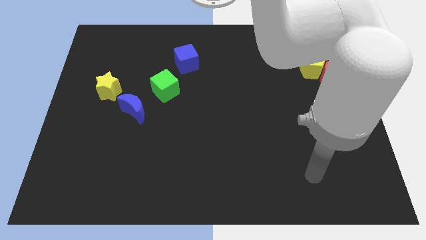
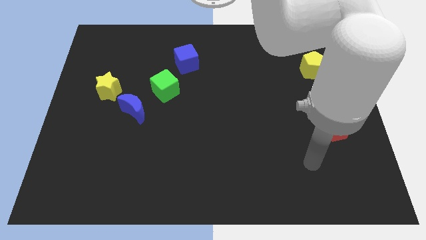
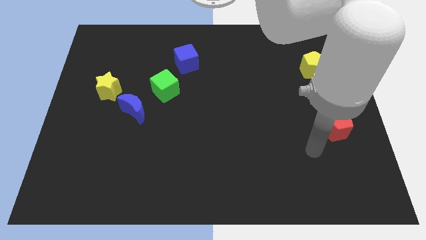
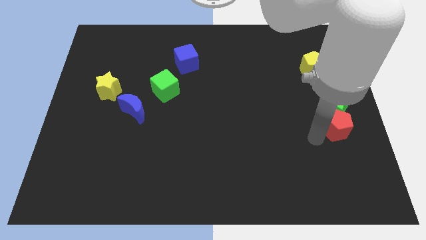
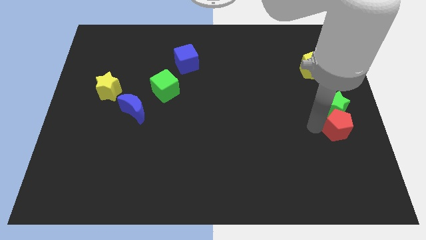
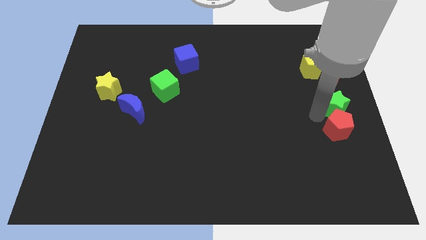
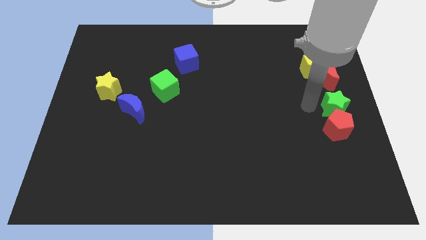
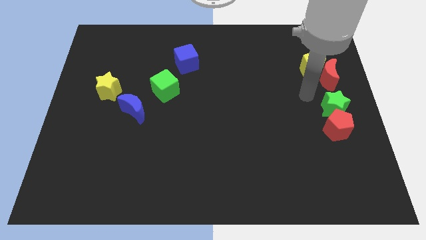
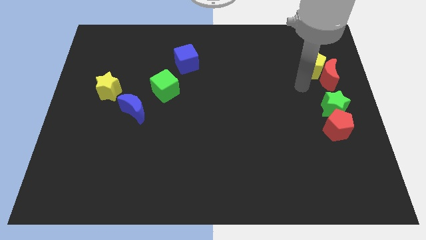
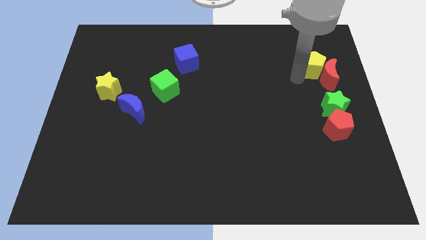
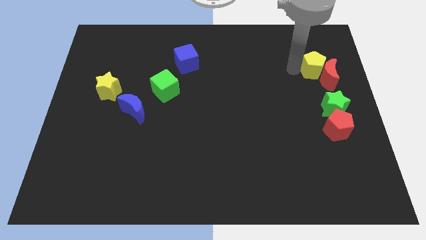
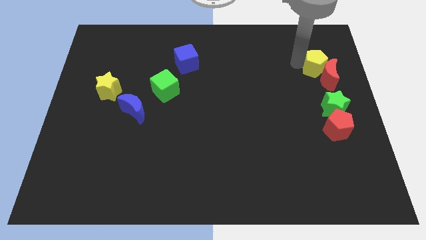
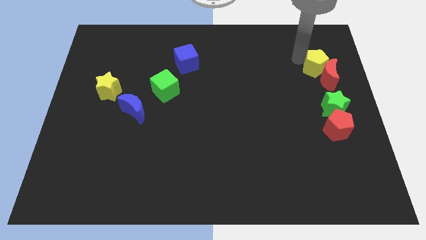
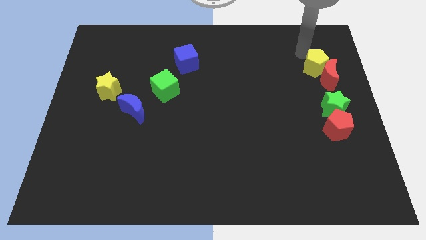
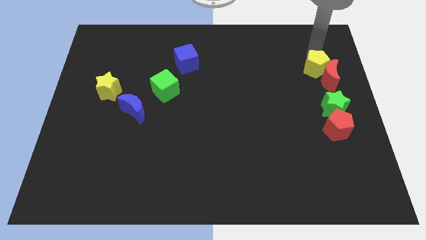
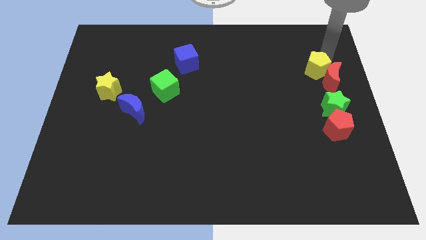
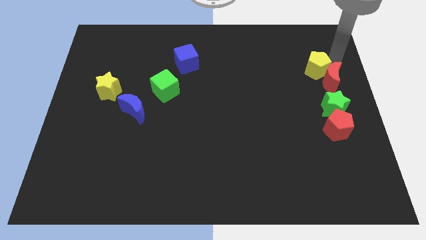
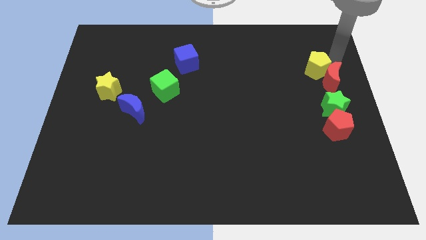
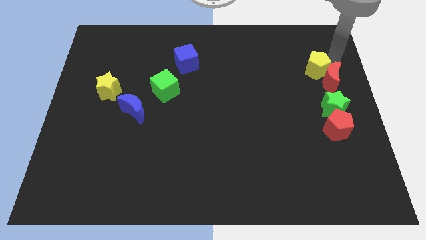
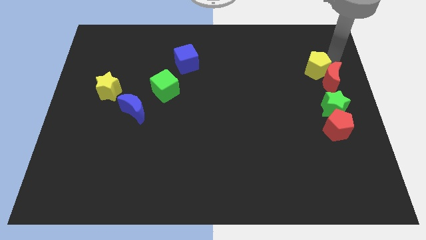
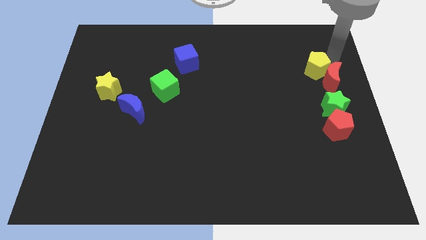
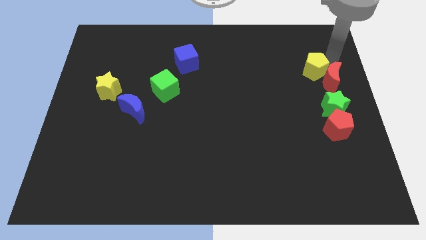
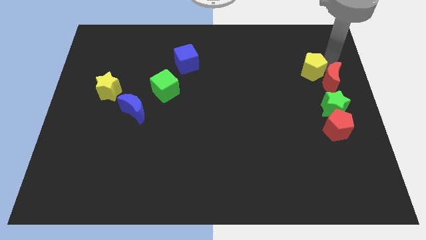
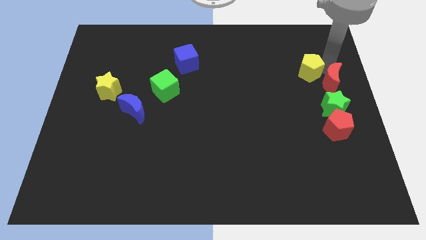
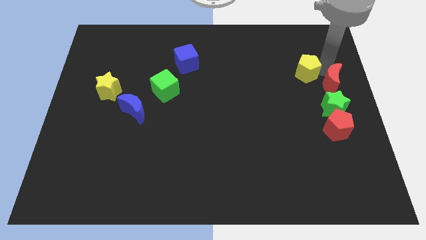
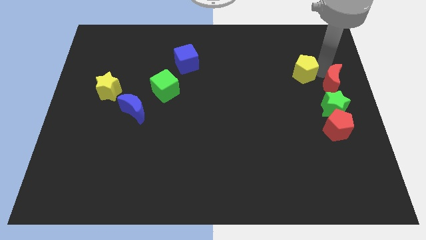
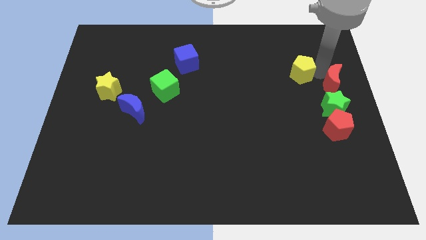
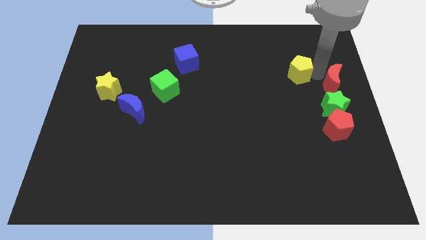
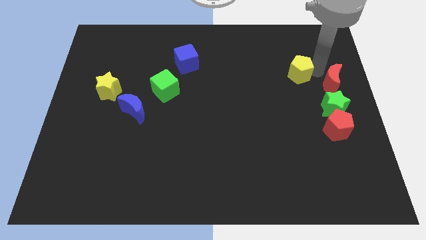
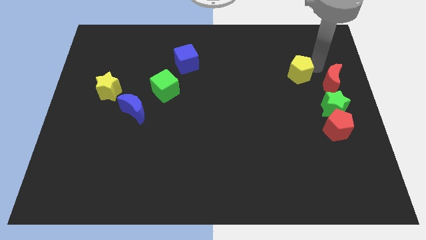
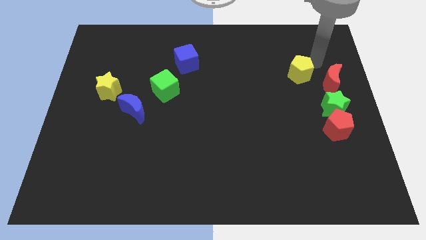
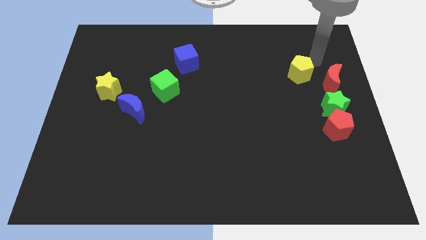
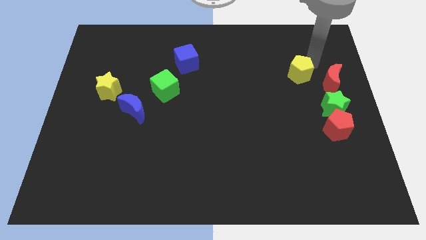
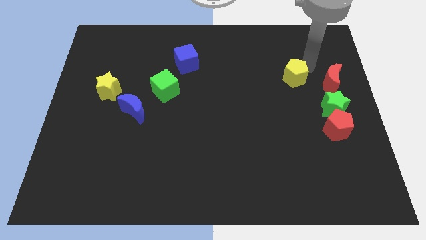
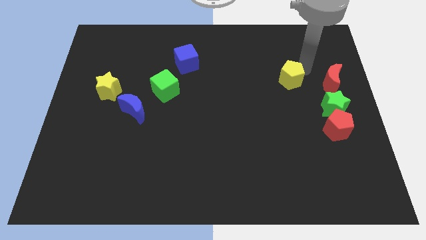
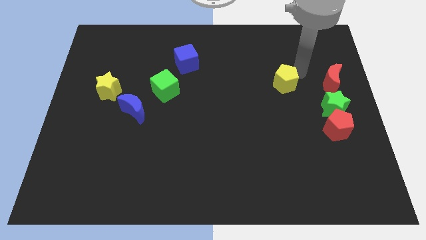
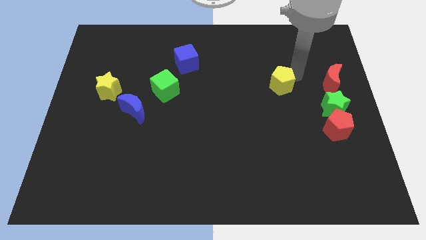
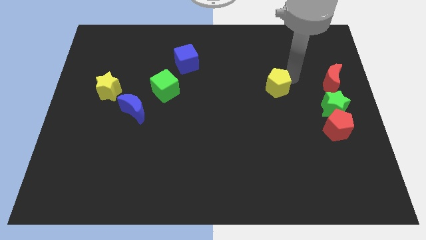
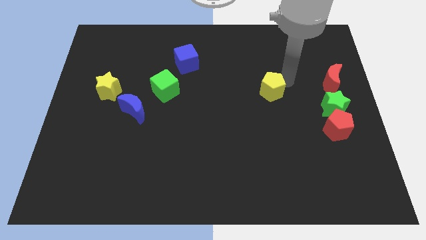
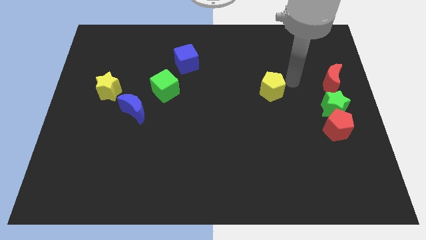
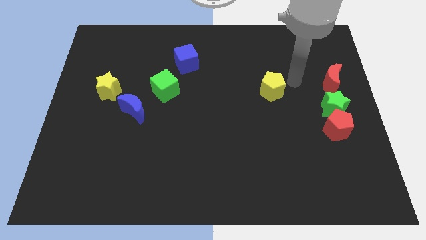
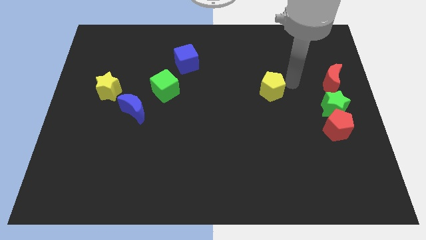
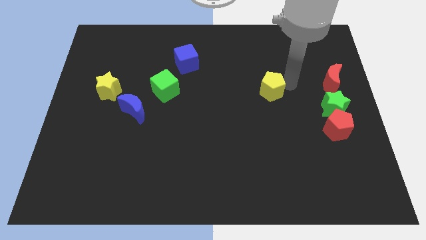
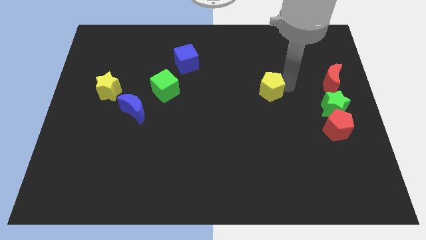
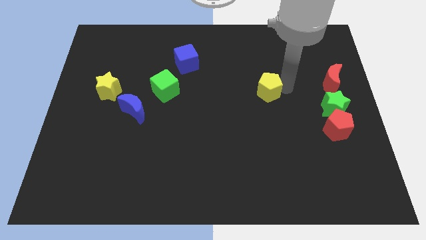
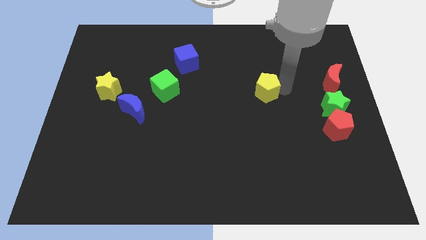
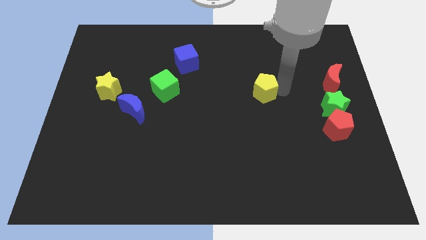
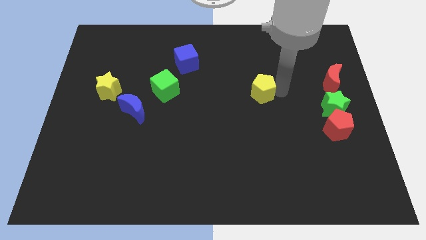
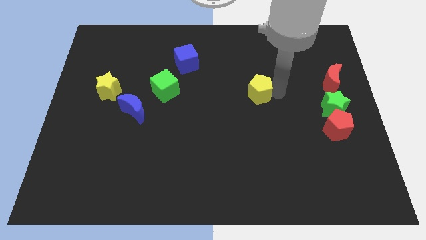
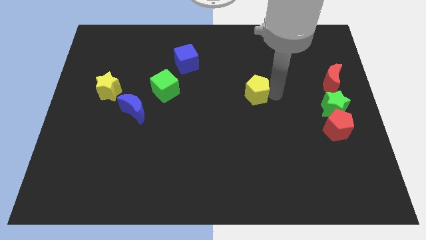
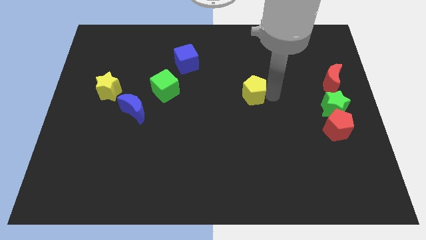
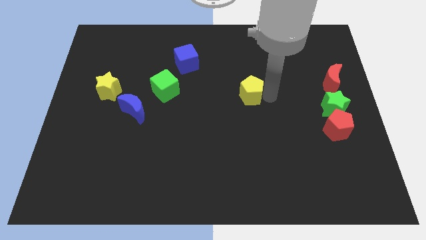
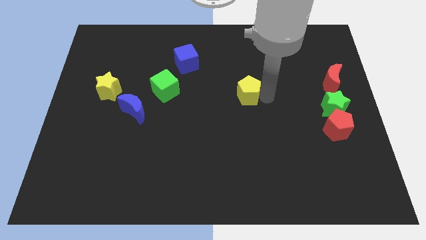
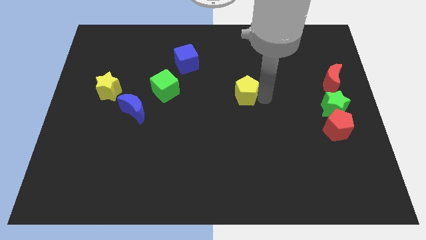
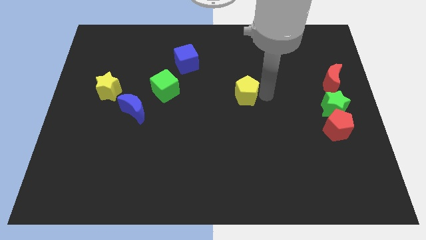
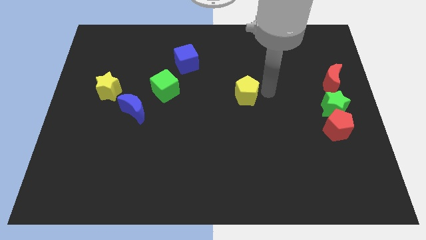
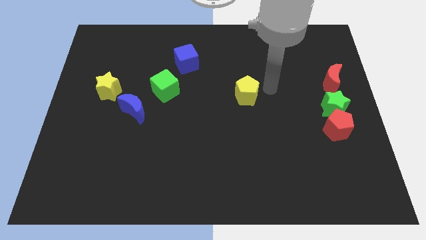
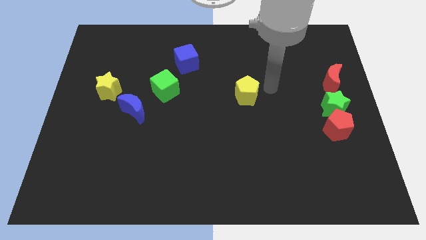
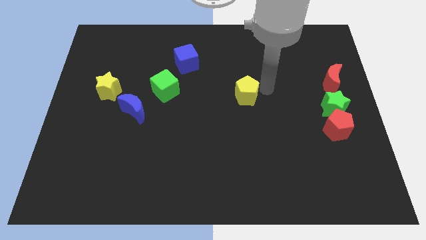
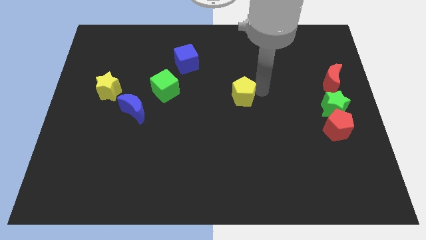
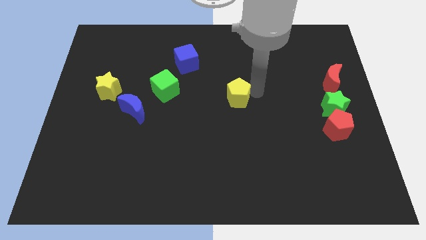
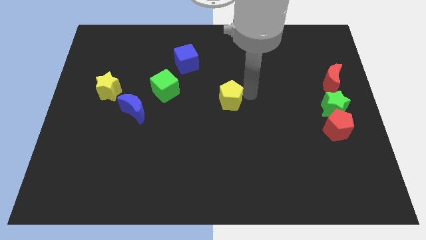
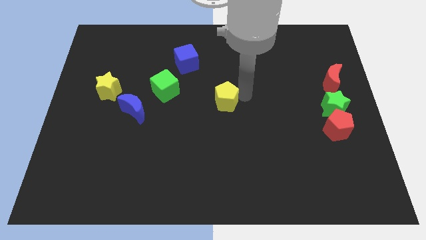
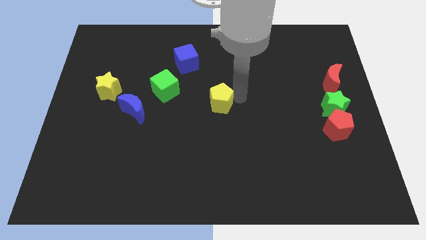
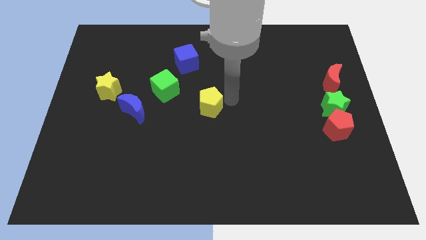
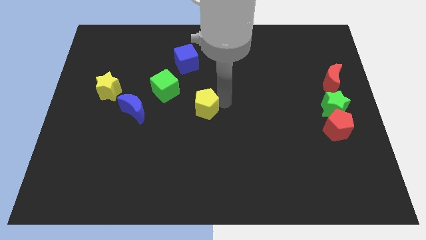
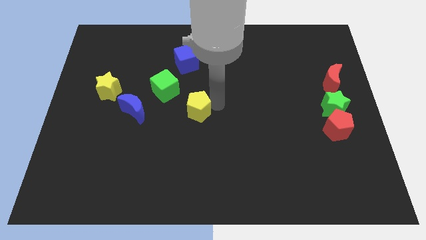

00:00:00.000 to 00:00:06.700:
push the yellow pentagon right of the blue moon
